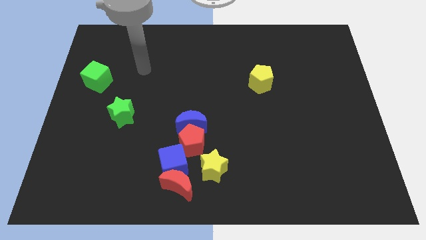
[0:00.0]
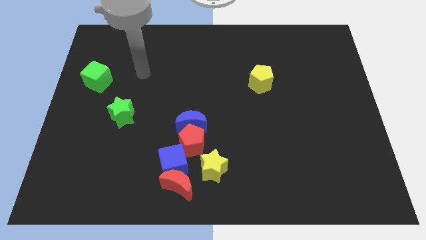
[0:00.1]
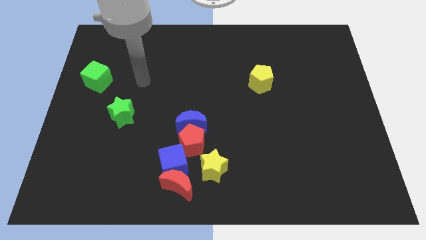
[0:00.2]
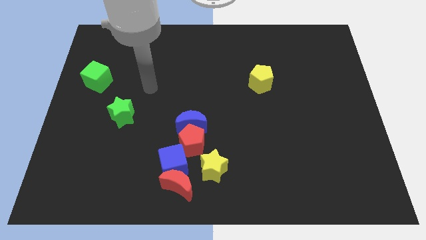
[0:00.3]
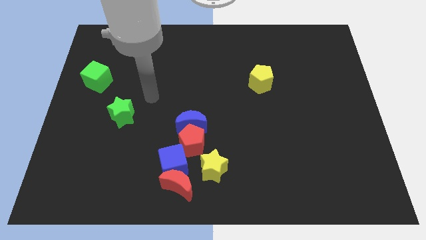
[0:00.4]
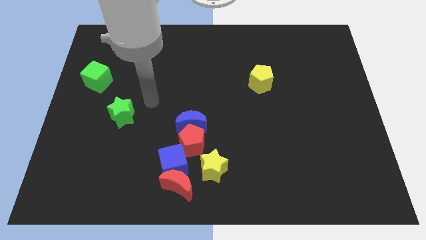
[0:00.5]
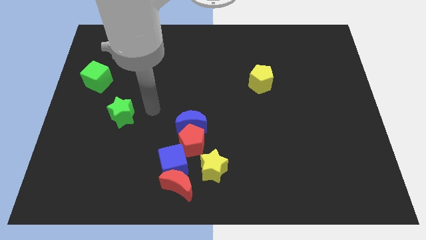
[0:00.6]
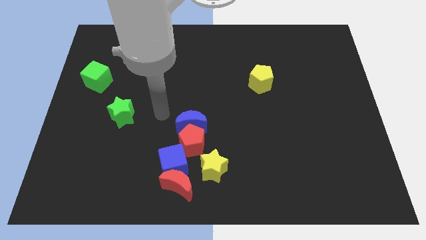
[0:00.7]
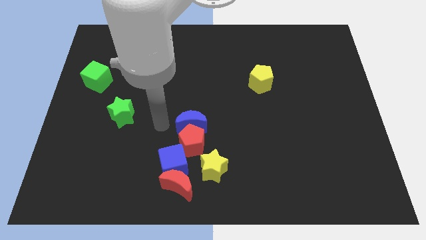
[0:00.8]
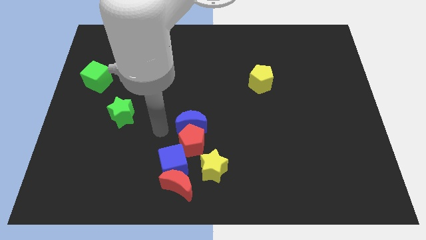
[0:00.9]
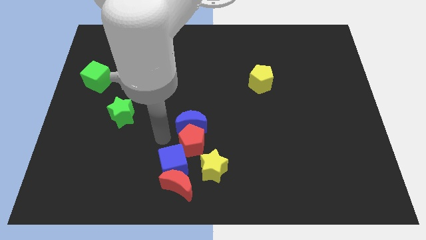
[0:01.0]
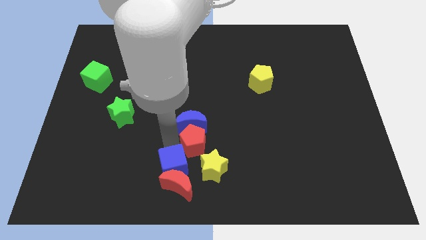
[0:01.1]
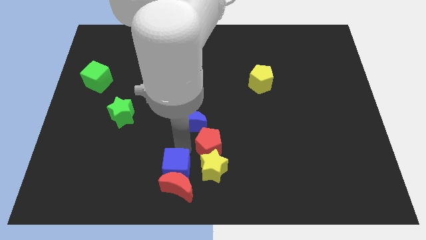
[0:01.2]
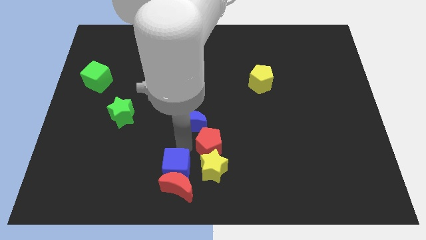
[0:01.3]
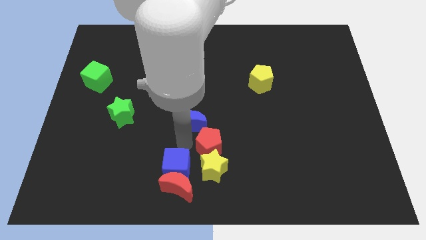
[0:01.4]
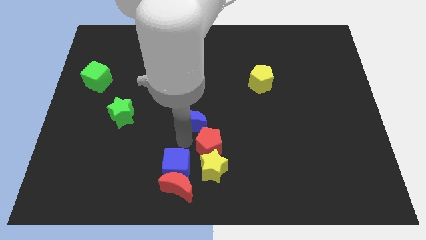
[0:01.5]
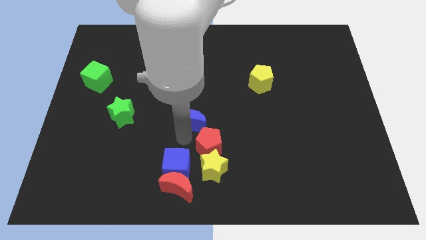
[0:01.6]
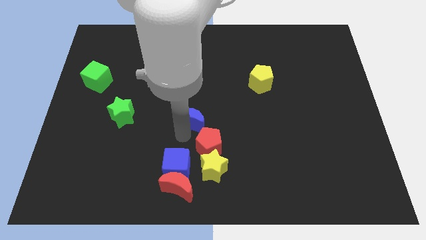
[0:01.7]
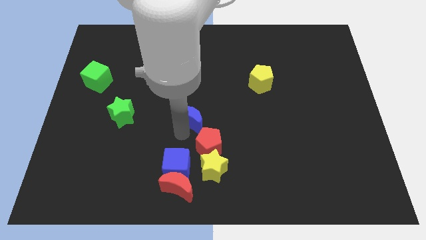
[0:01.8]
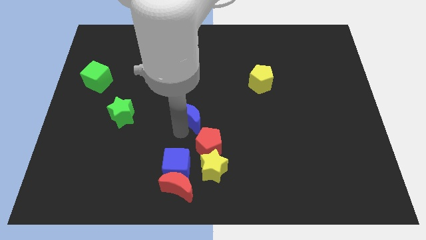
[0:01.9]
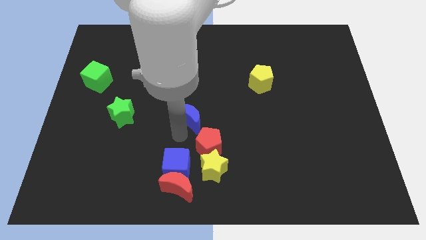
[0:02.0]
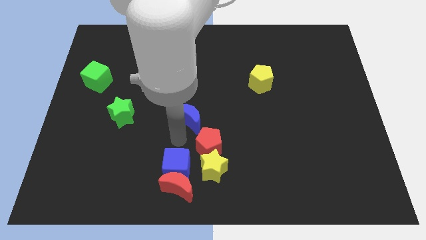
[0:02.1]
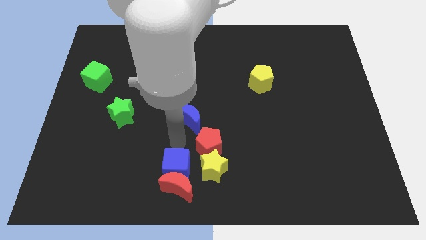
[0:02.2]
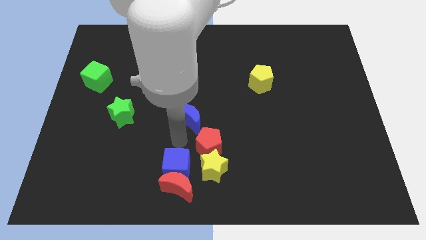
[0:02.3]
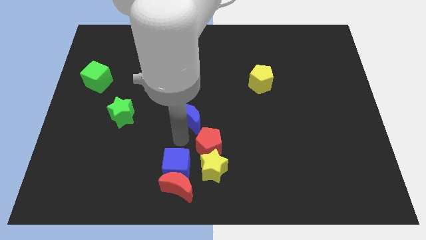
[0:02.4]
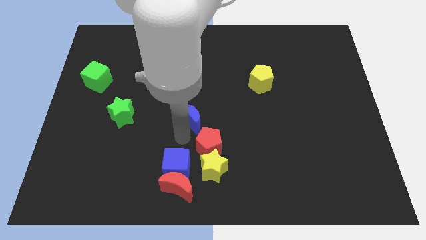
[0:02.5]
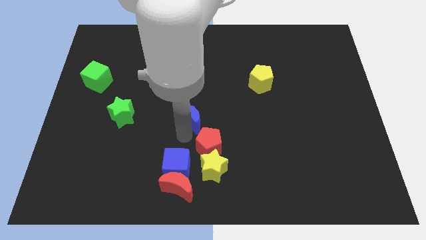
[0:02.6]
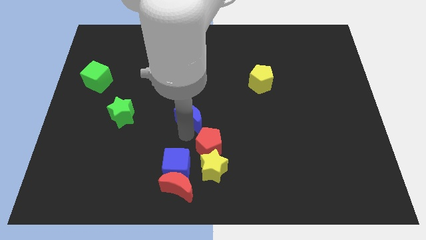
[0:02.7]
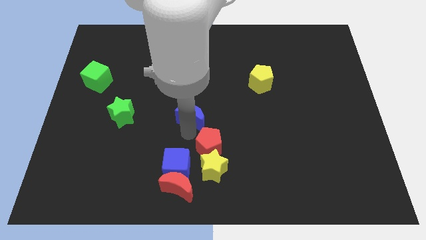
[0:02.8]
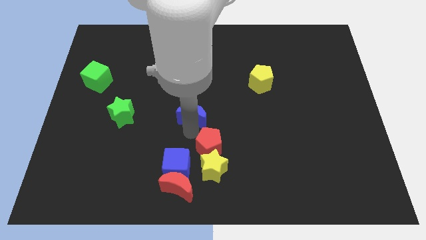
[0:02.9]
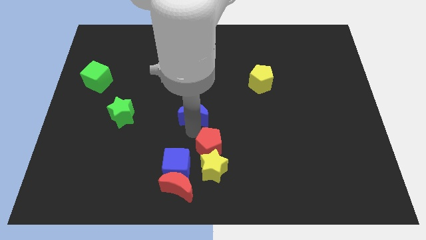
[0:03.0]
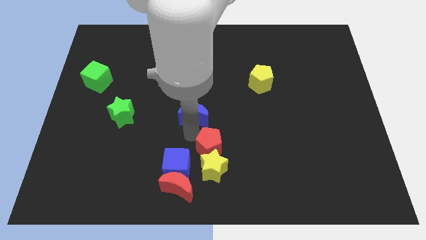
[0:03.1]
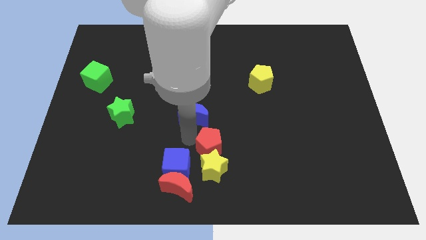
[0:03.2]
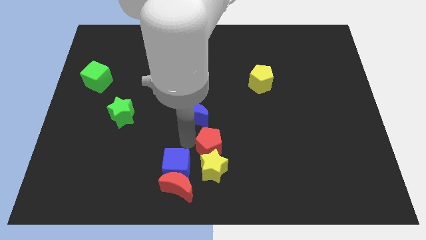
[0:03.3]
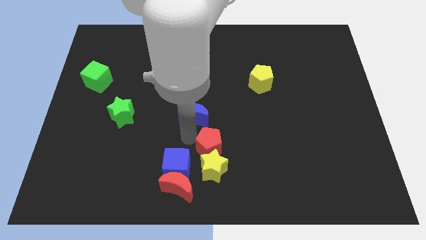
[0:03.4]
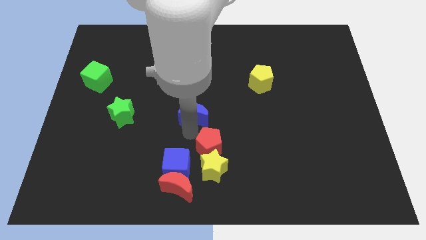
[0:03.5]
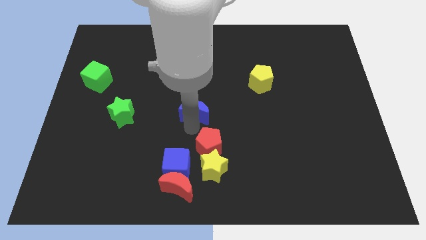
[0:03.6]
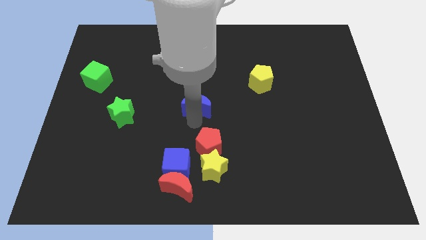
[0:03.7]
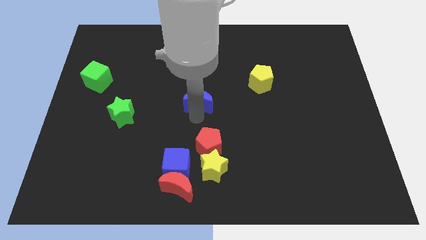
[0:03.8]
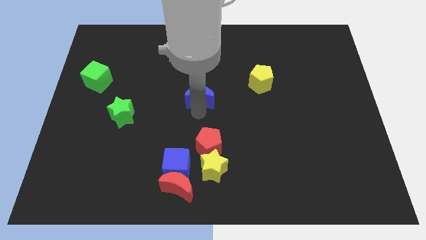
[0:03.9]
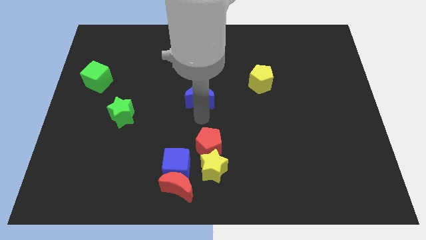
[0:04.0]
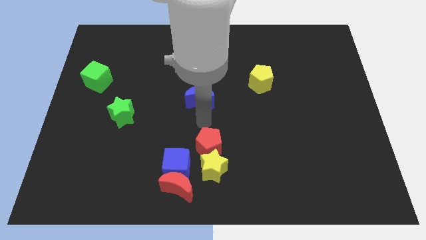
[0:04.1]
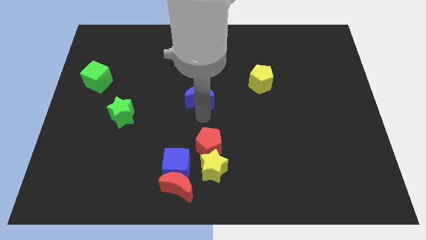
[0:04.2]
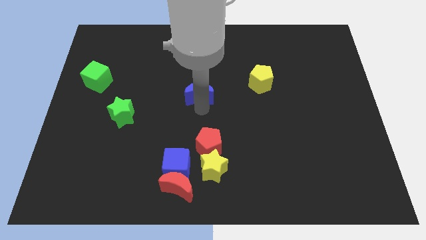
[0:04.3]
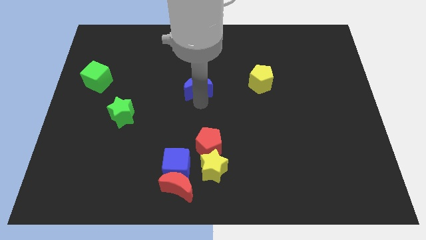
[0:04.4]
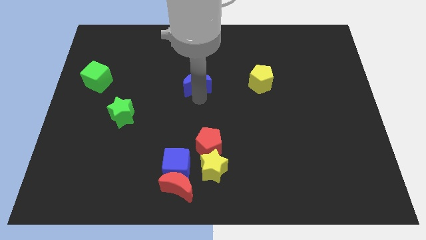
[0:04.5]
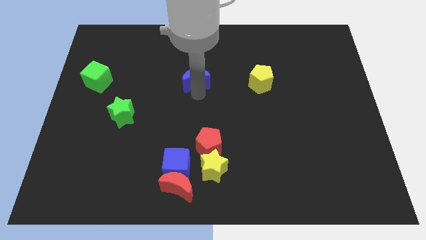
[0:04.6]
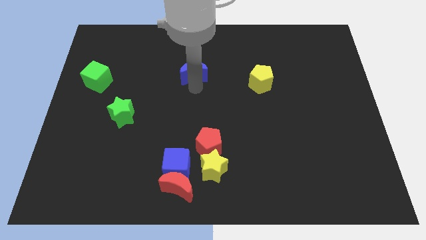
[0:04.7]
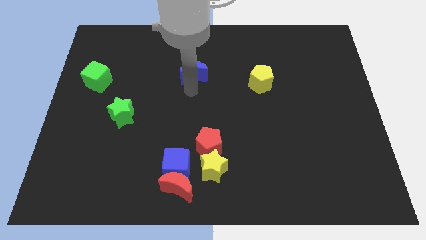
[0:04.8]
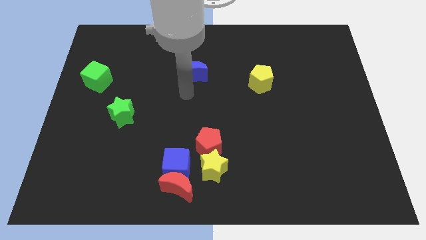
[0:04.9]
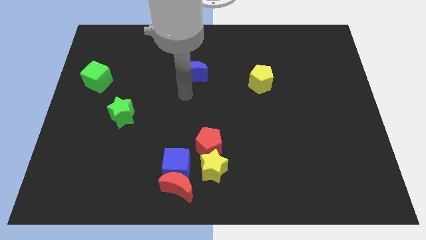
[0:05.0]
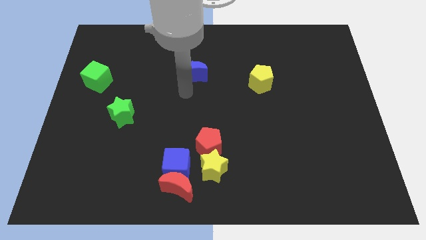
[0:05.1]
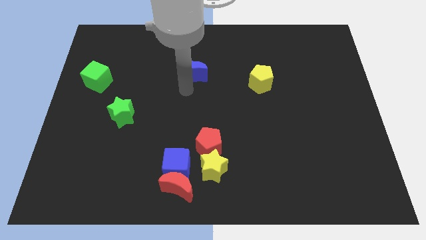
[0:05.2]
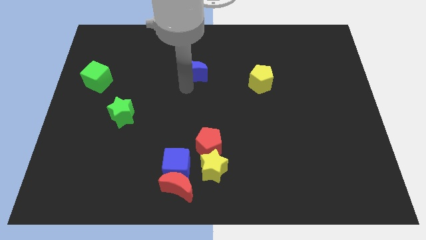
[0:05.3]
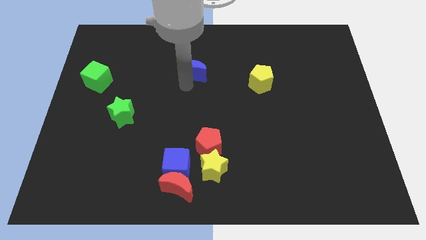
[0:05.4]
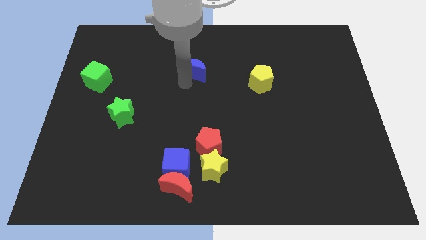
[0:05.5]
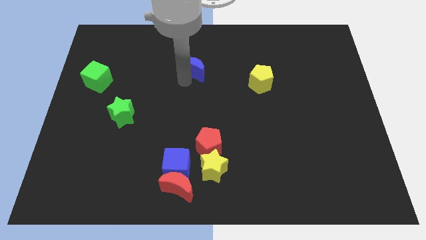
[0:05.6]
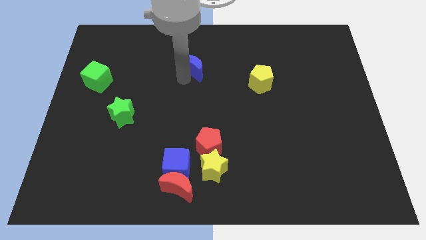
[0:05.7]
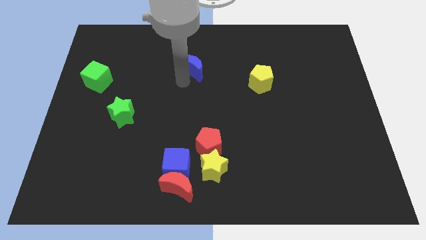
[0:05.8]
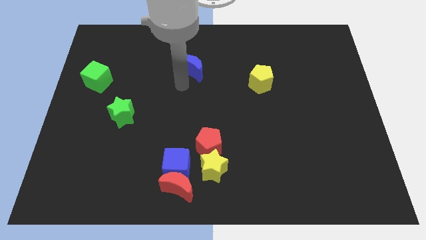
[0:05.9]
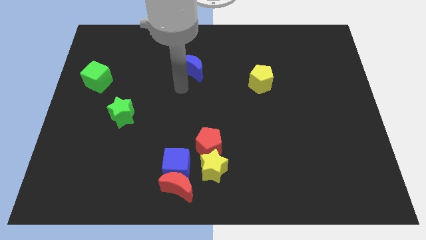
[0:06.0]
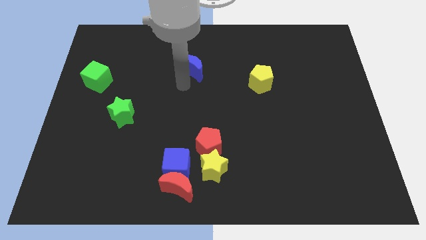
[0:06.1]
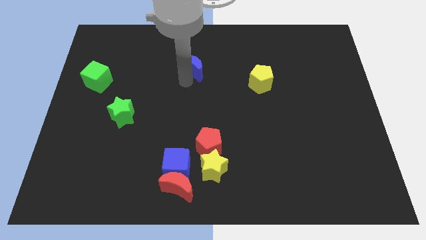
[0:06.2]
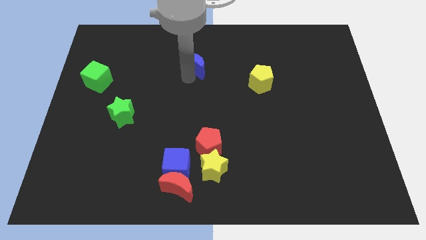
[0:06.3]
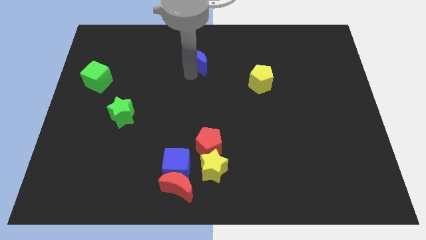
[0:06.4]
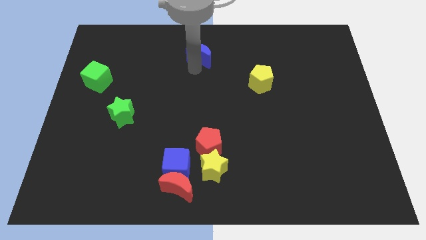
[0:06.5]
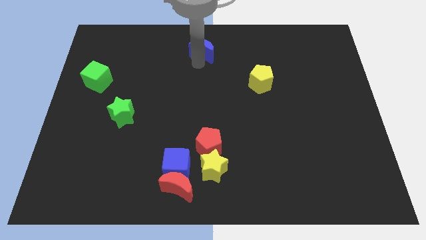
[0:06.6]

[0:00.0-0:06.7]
move the blue moon to the towards your base
